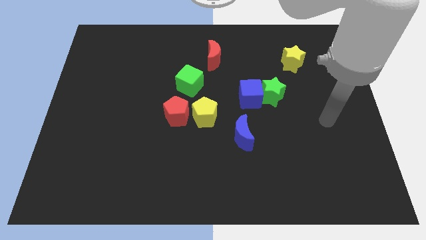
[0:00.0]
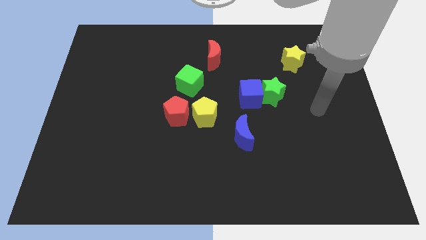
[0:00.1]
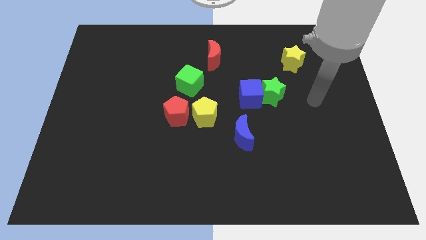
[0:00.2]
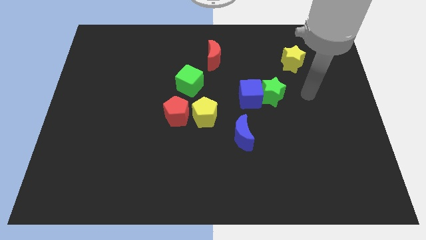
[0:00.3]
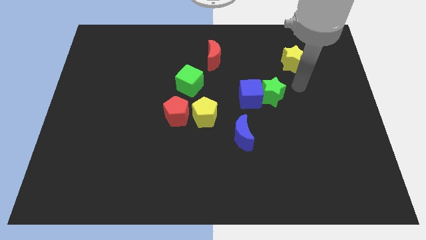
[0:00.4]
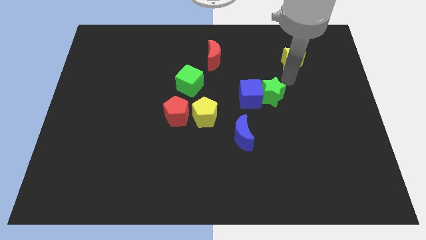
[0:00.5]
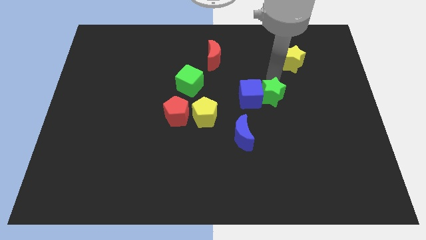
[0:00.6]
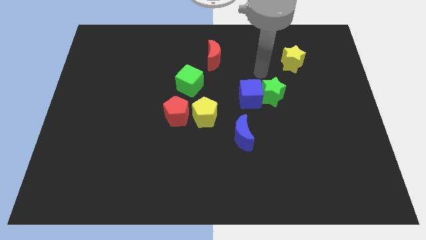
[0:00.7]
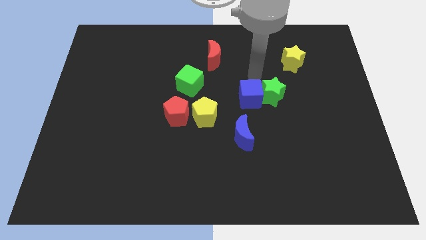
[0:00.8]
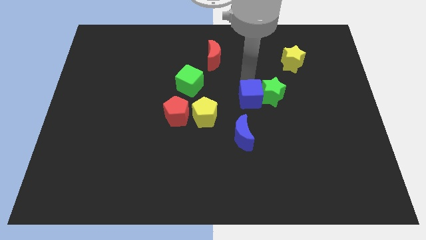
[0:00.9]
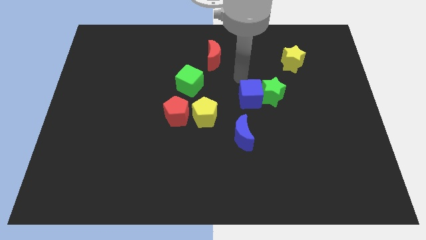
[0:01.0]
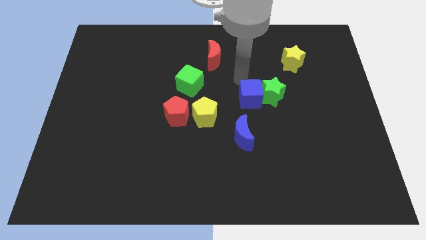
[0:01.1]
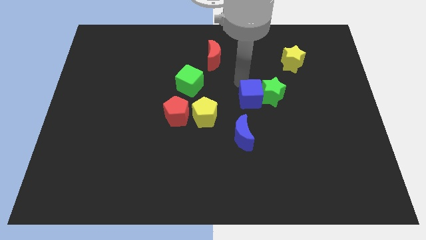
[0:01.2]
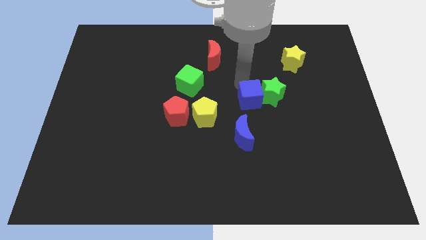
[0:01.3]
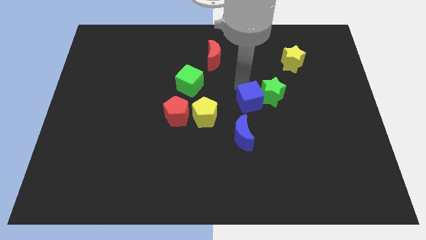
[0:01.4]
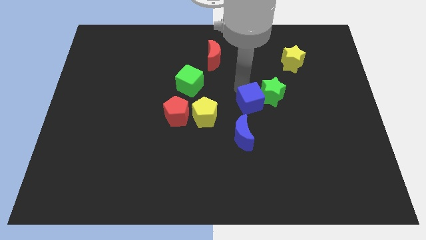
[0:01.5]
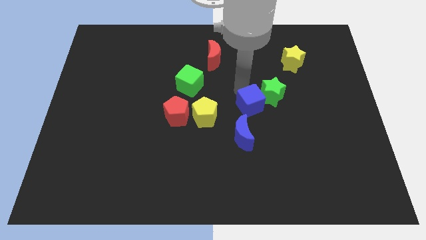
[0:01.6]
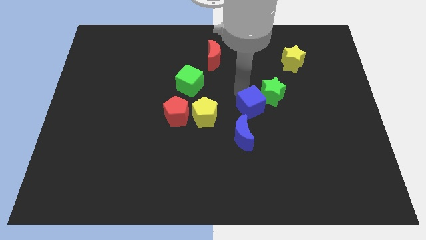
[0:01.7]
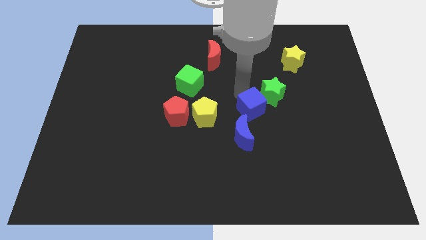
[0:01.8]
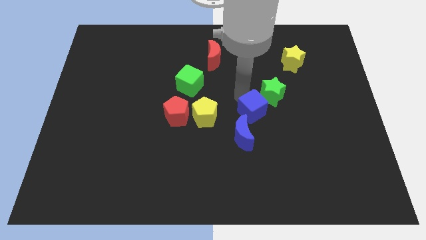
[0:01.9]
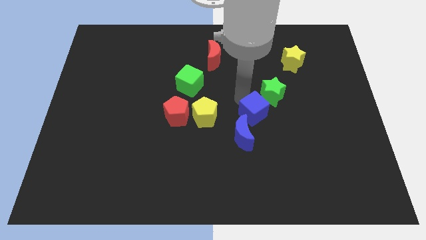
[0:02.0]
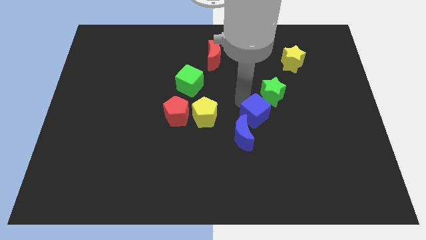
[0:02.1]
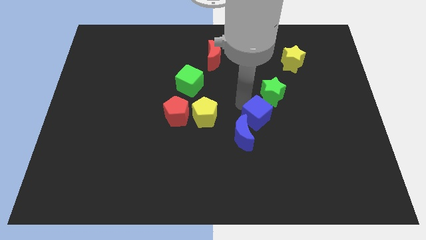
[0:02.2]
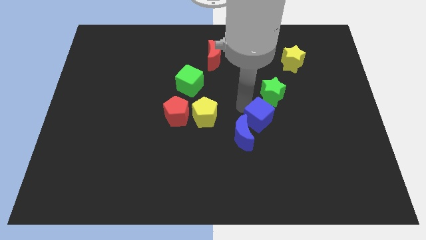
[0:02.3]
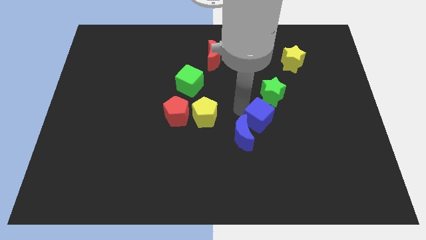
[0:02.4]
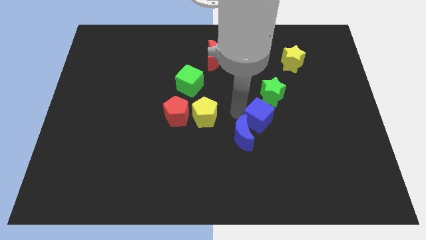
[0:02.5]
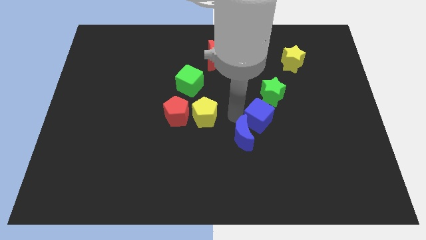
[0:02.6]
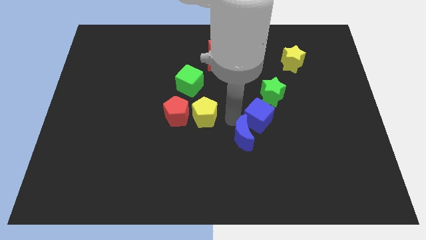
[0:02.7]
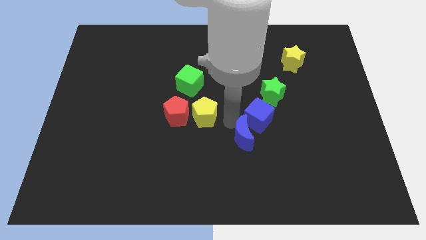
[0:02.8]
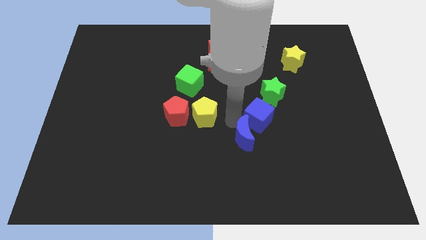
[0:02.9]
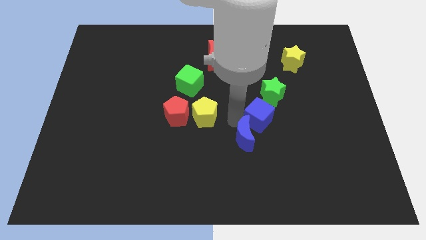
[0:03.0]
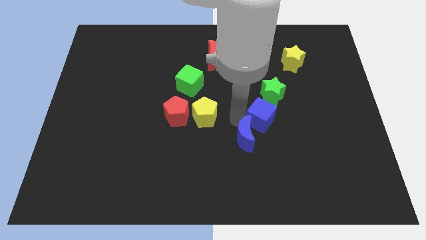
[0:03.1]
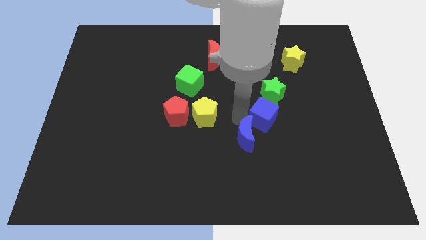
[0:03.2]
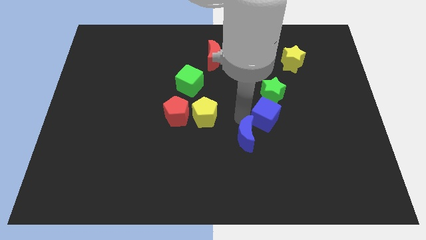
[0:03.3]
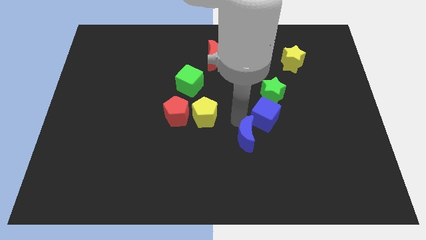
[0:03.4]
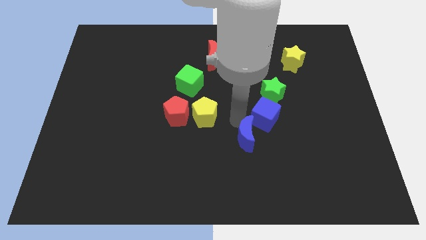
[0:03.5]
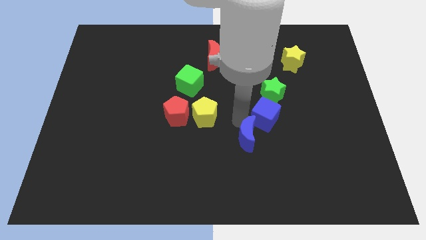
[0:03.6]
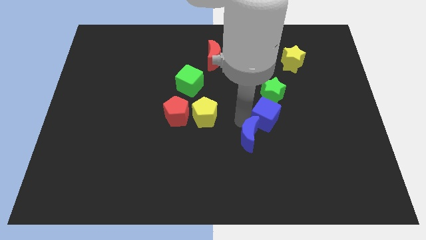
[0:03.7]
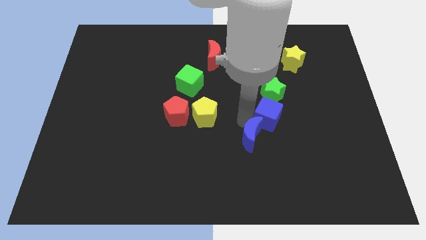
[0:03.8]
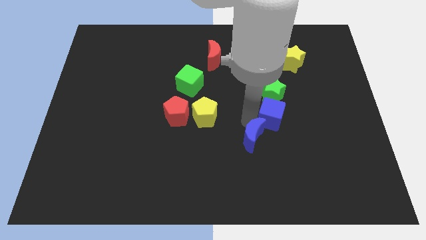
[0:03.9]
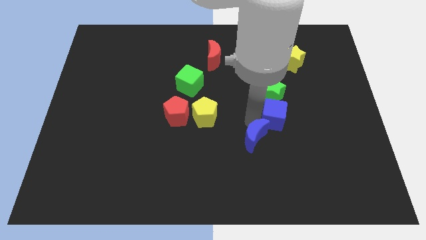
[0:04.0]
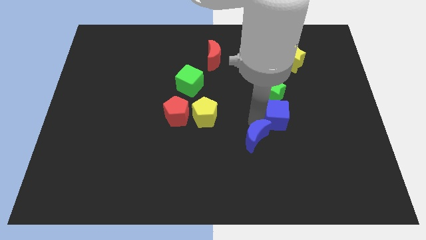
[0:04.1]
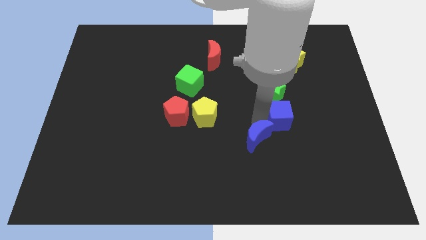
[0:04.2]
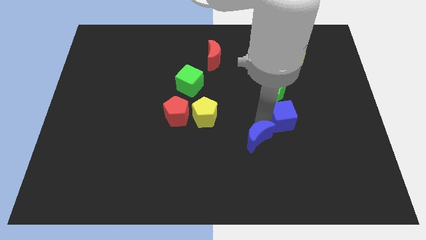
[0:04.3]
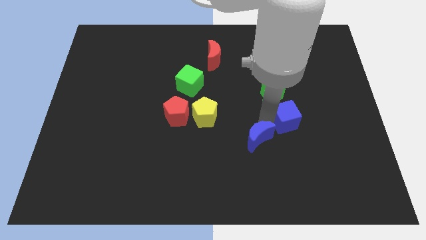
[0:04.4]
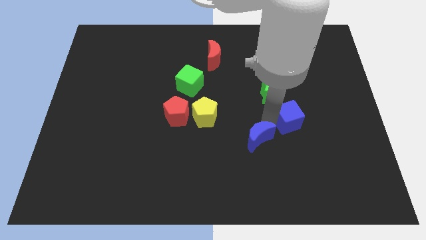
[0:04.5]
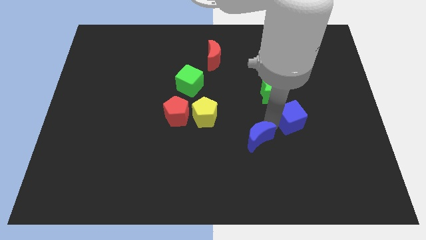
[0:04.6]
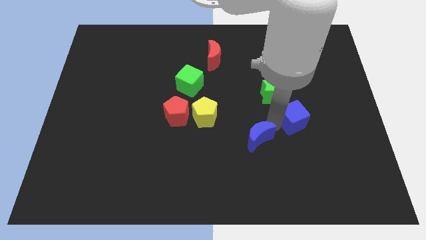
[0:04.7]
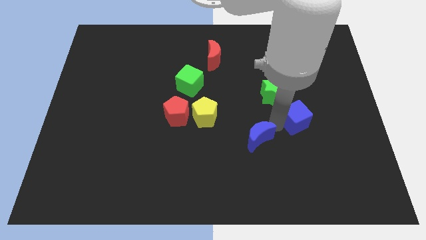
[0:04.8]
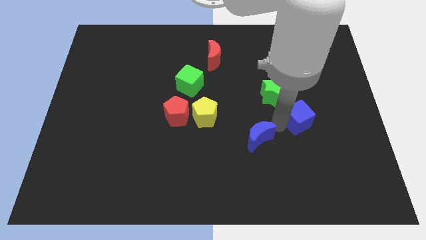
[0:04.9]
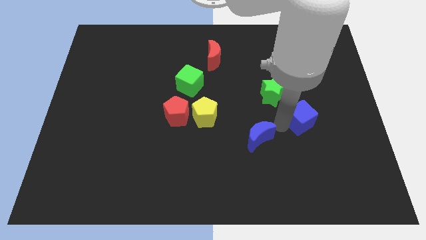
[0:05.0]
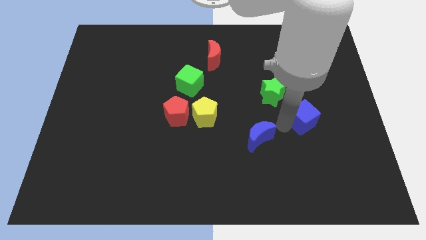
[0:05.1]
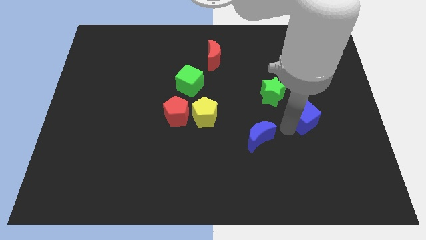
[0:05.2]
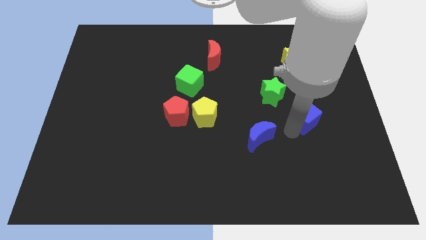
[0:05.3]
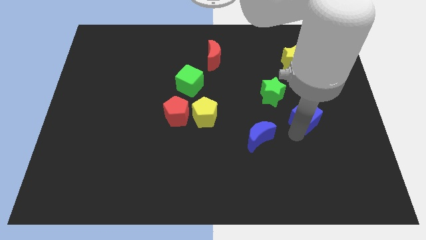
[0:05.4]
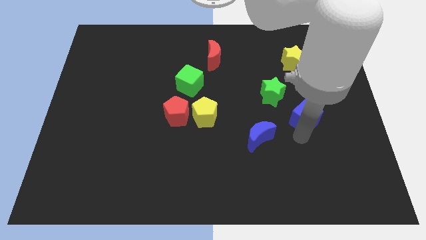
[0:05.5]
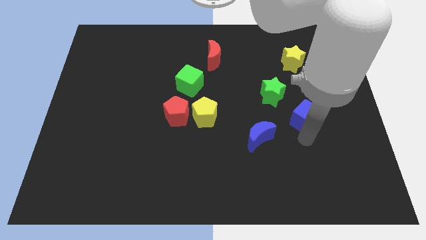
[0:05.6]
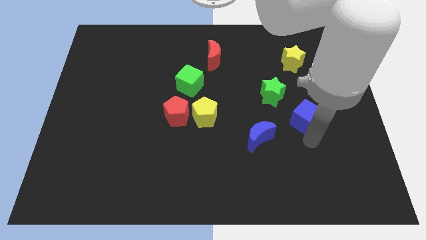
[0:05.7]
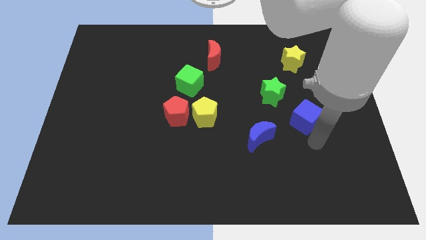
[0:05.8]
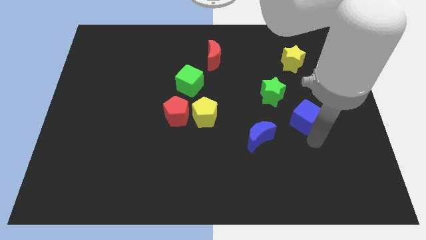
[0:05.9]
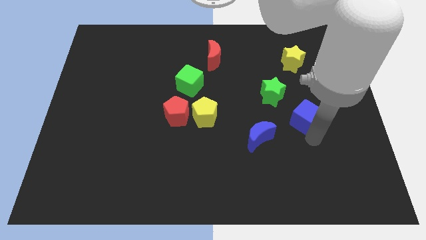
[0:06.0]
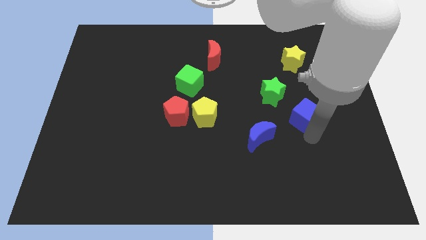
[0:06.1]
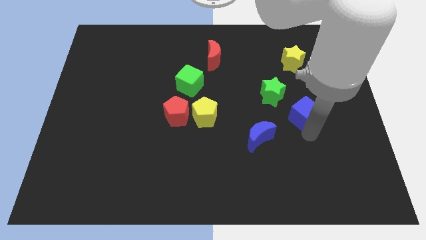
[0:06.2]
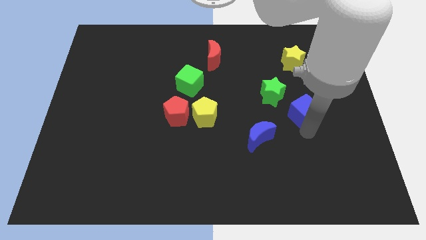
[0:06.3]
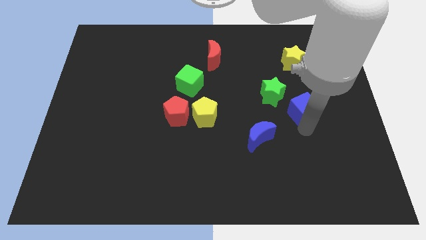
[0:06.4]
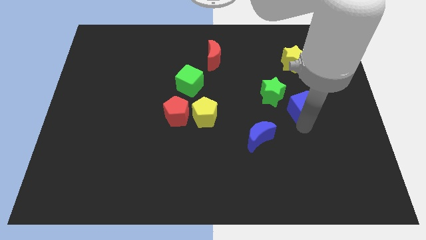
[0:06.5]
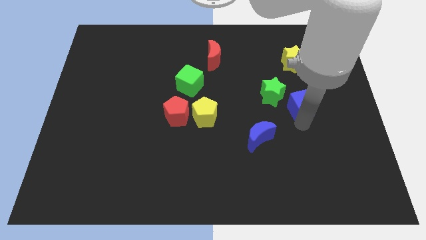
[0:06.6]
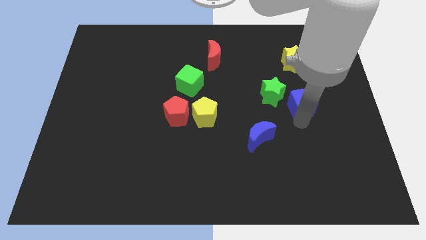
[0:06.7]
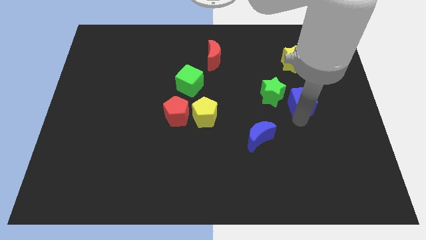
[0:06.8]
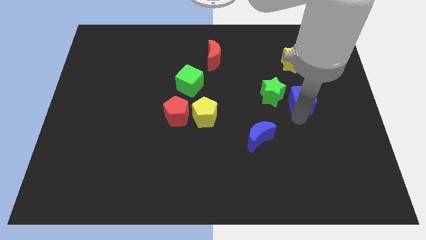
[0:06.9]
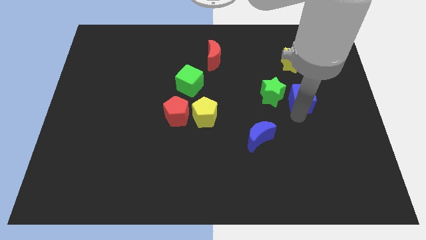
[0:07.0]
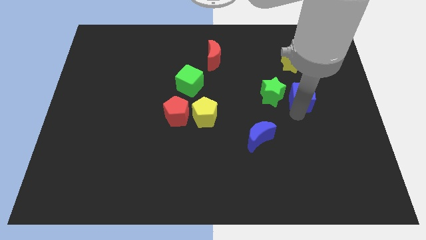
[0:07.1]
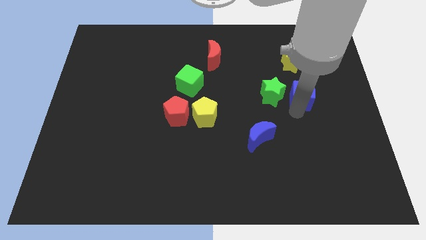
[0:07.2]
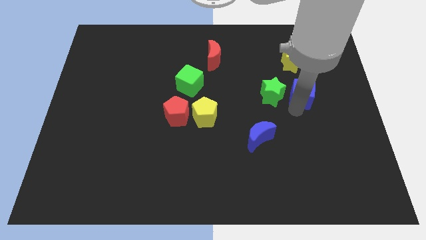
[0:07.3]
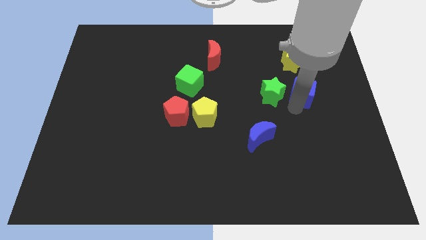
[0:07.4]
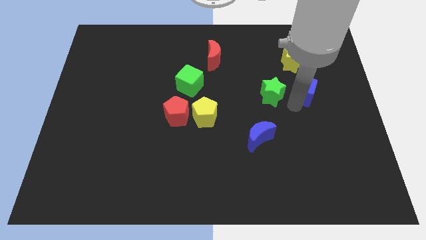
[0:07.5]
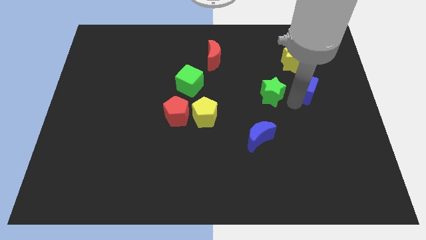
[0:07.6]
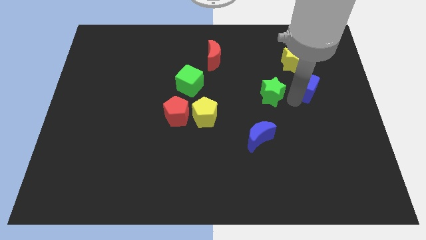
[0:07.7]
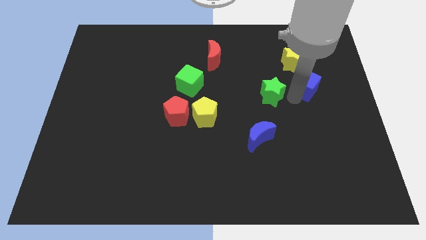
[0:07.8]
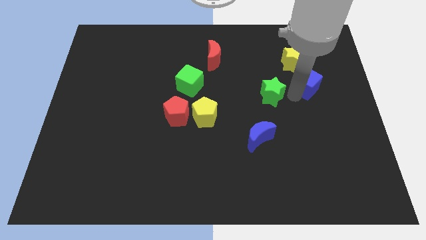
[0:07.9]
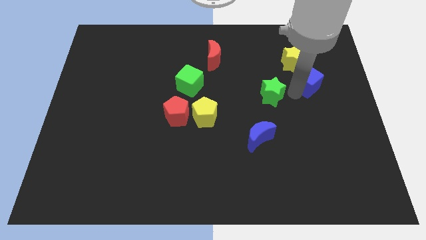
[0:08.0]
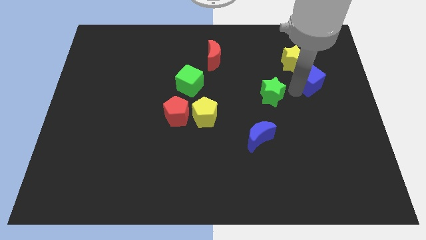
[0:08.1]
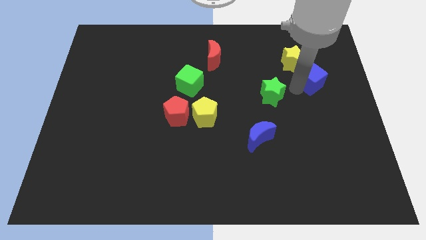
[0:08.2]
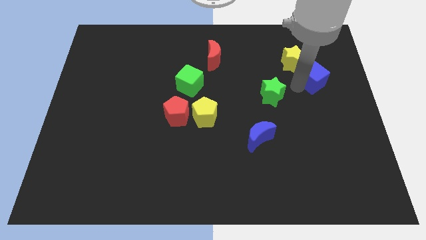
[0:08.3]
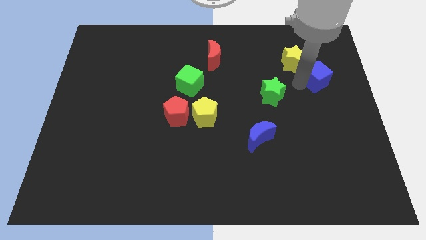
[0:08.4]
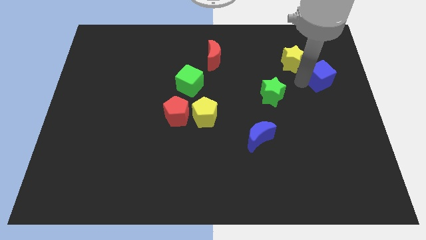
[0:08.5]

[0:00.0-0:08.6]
move the blue cube to the right side
